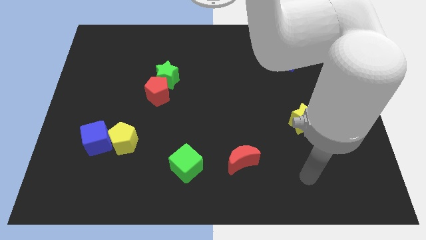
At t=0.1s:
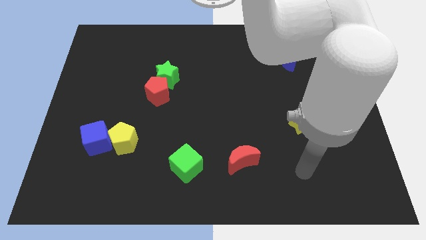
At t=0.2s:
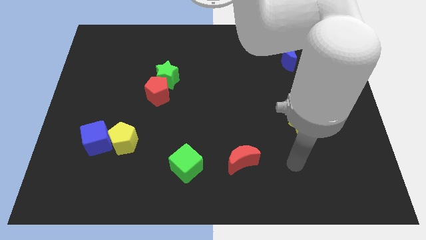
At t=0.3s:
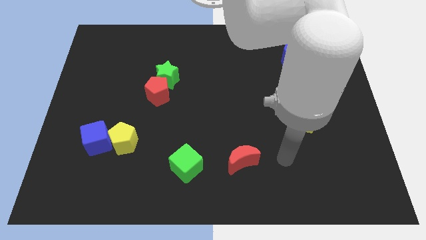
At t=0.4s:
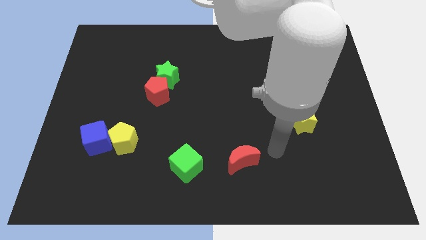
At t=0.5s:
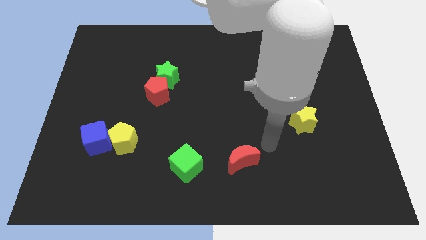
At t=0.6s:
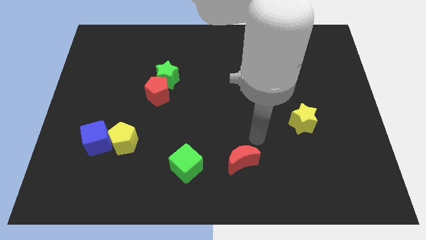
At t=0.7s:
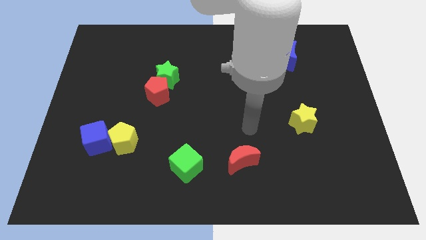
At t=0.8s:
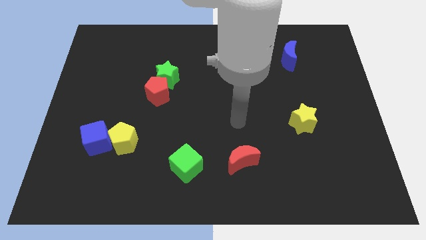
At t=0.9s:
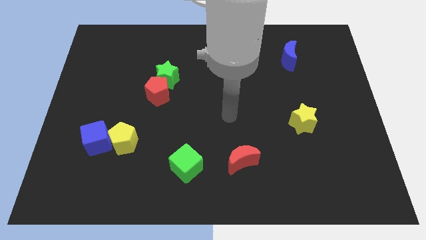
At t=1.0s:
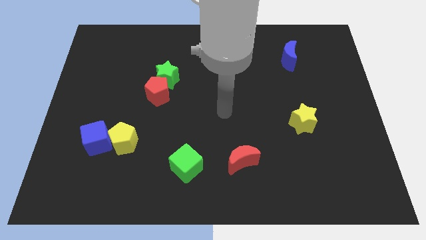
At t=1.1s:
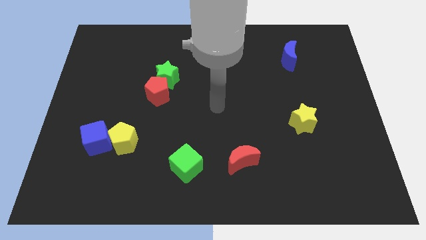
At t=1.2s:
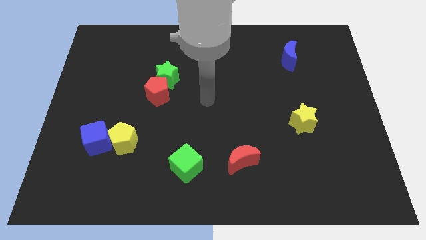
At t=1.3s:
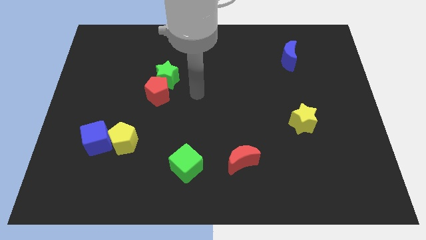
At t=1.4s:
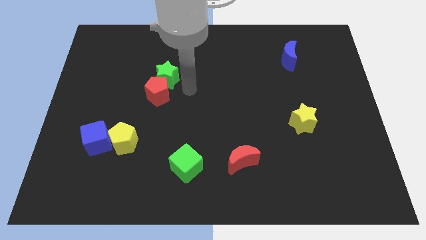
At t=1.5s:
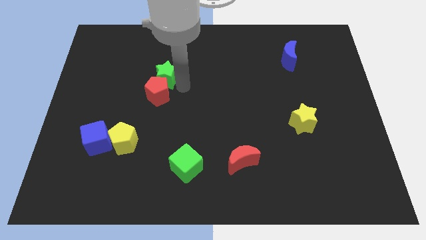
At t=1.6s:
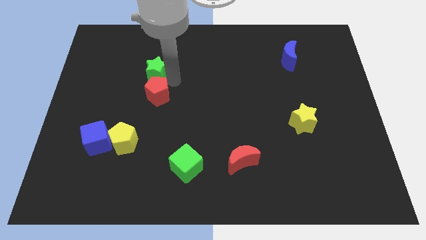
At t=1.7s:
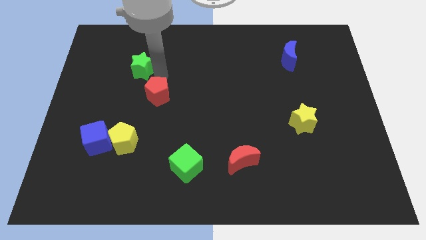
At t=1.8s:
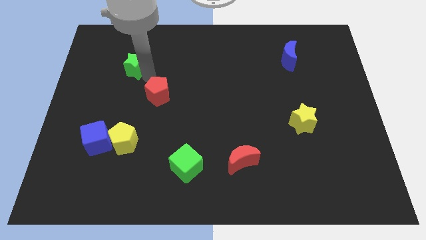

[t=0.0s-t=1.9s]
pull the red pentagon apart from the green star

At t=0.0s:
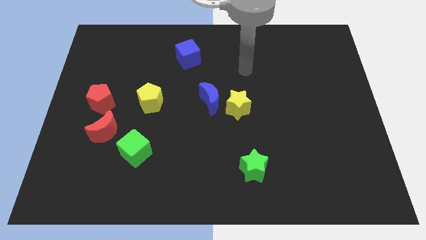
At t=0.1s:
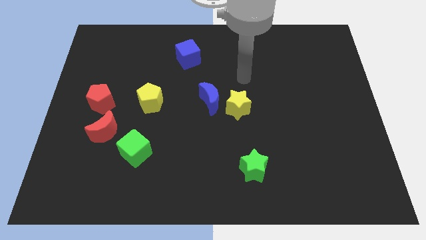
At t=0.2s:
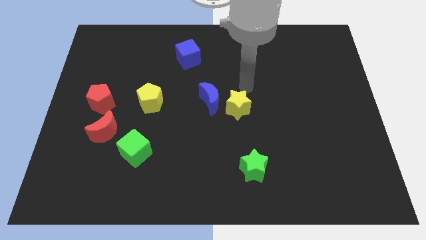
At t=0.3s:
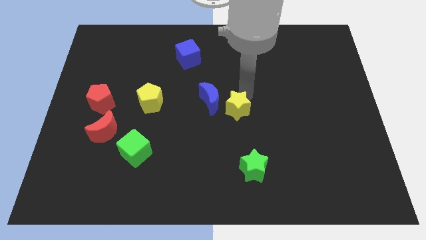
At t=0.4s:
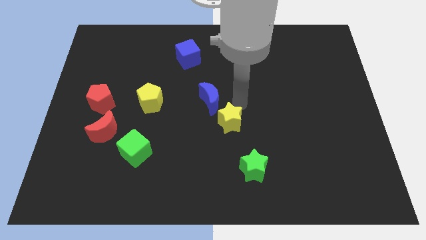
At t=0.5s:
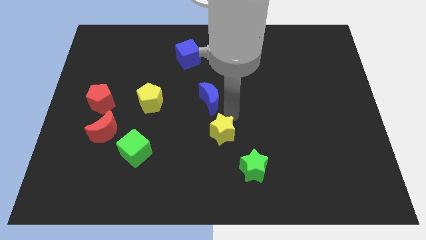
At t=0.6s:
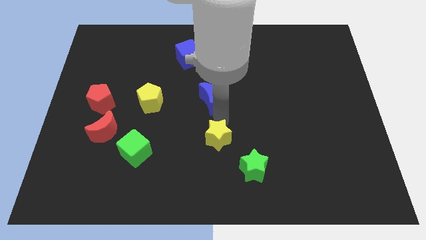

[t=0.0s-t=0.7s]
move the blue moon away from the yellow star

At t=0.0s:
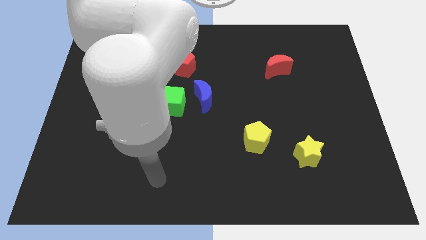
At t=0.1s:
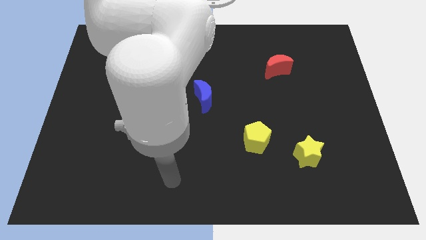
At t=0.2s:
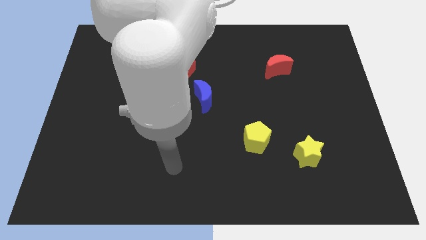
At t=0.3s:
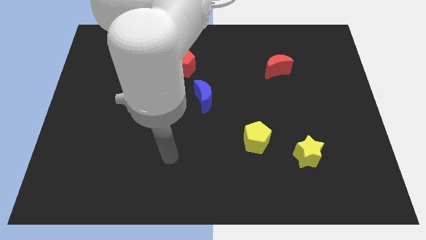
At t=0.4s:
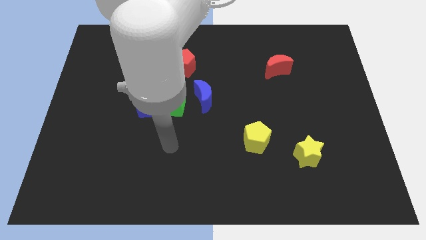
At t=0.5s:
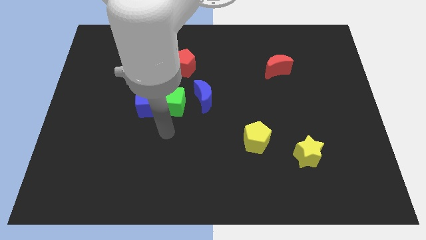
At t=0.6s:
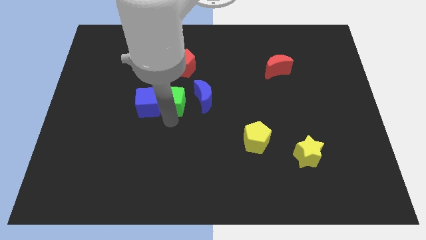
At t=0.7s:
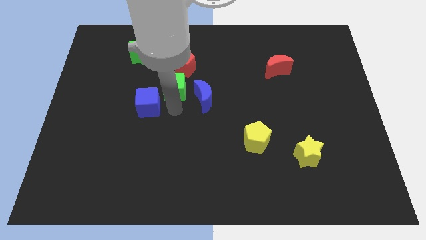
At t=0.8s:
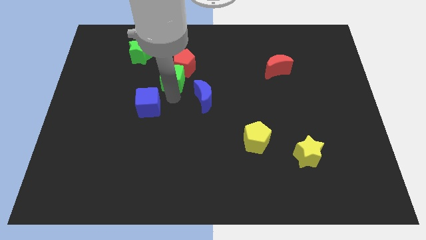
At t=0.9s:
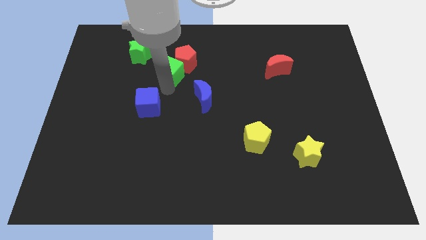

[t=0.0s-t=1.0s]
separate the blue cube from the green cube

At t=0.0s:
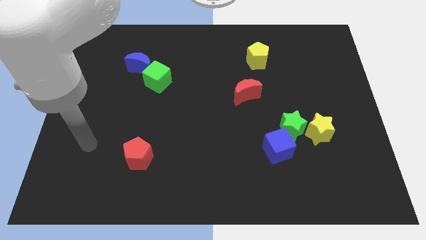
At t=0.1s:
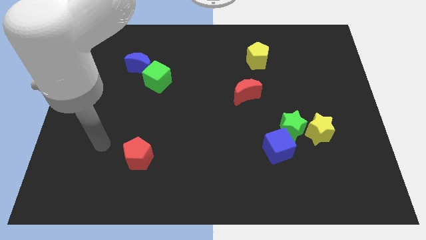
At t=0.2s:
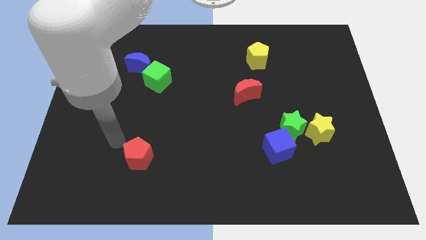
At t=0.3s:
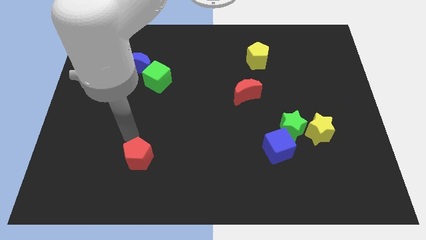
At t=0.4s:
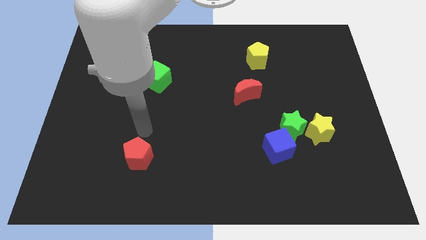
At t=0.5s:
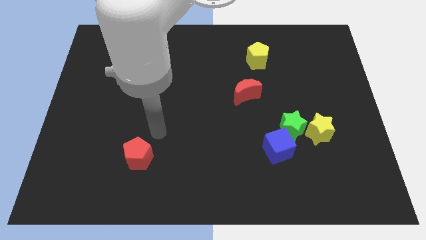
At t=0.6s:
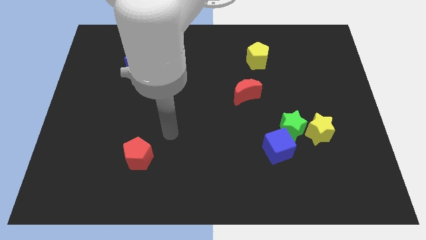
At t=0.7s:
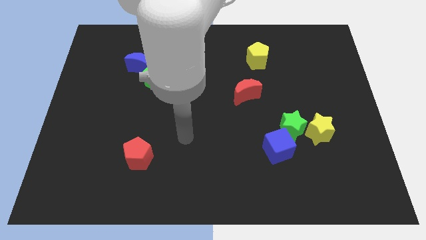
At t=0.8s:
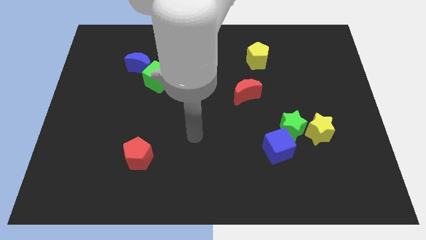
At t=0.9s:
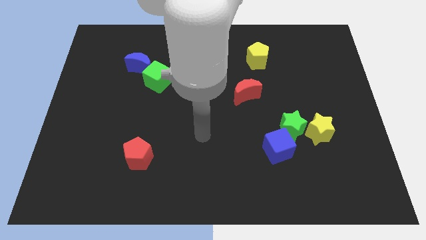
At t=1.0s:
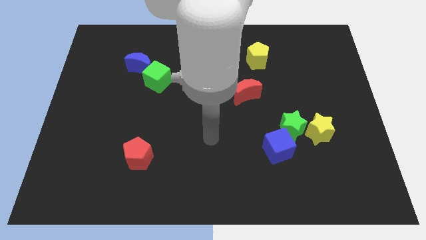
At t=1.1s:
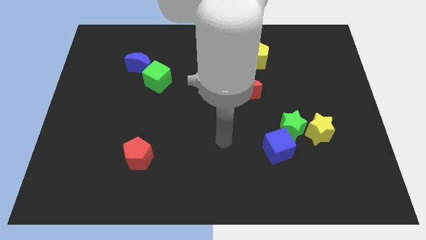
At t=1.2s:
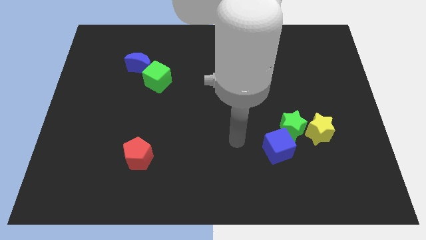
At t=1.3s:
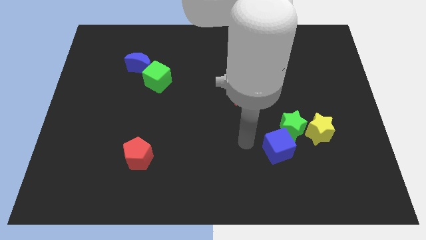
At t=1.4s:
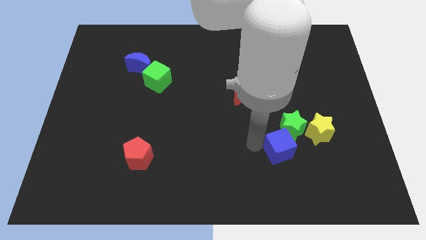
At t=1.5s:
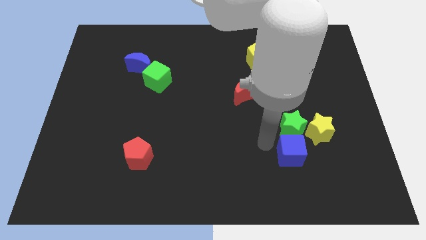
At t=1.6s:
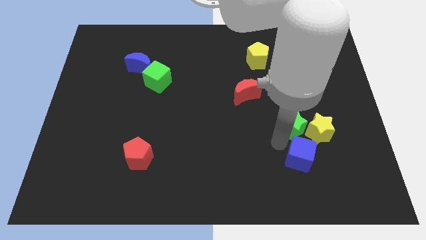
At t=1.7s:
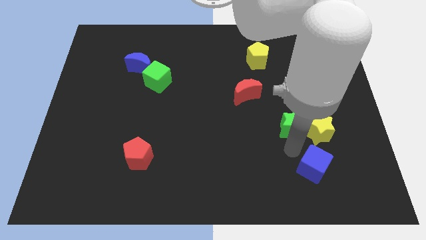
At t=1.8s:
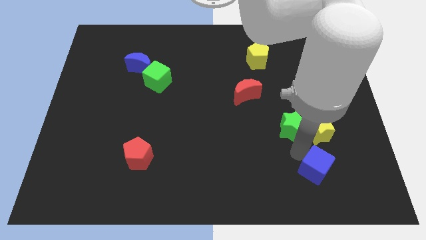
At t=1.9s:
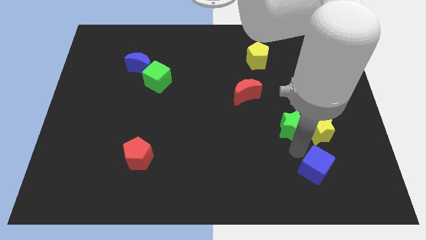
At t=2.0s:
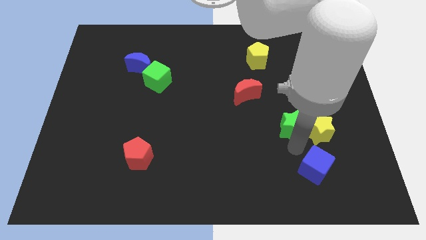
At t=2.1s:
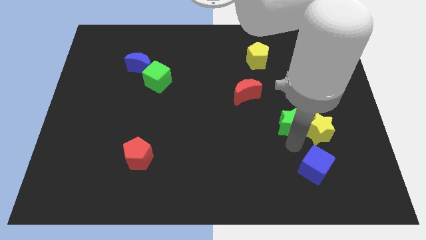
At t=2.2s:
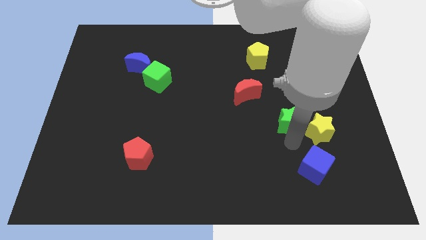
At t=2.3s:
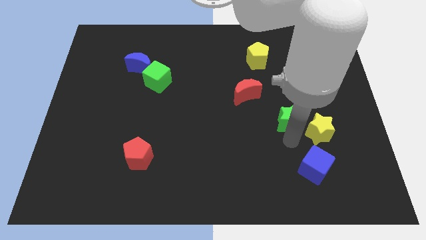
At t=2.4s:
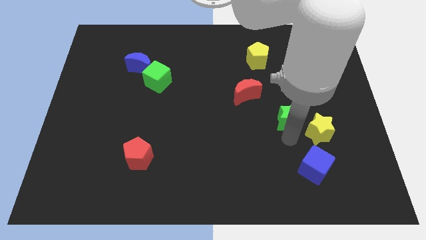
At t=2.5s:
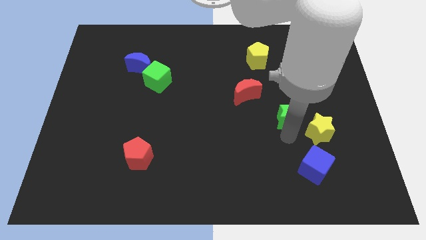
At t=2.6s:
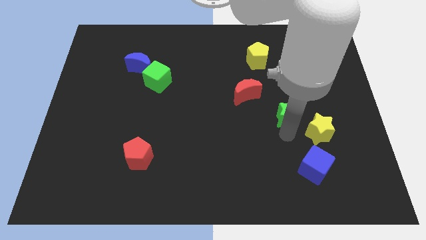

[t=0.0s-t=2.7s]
separate the green star from the yellow star and blue cube

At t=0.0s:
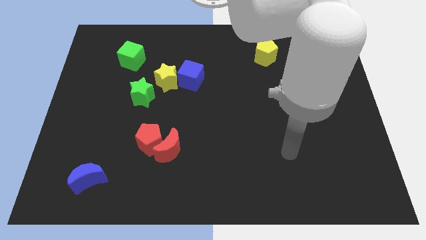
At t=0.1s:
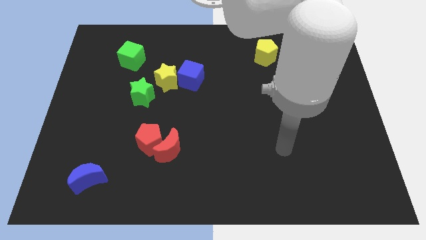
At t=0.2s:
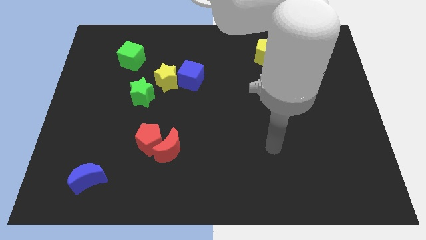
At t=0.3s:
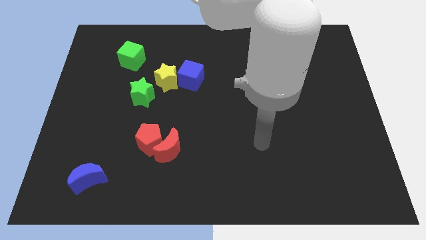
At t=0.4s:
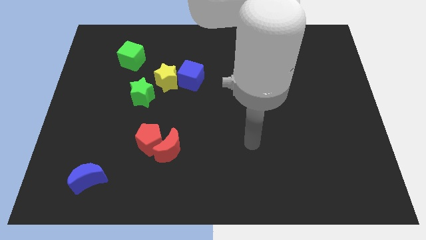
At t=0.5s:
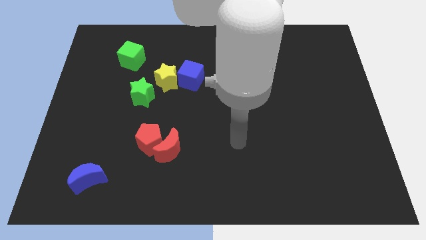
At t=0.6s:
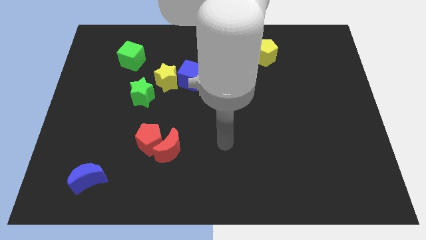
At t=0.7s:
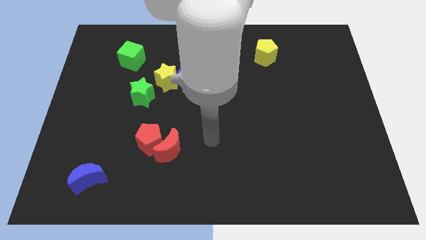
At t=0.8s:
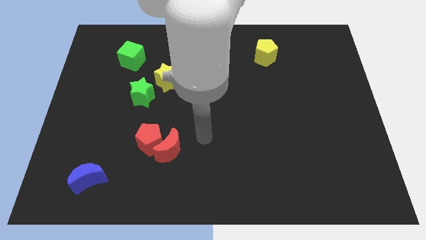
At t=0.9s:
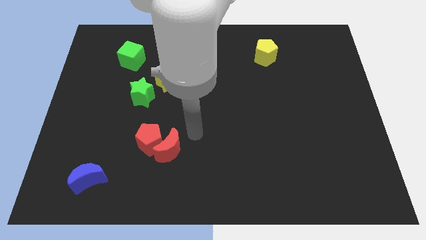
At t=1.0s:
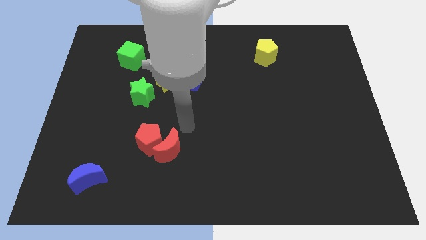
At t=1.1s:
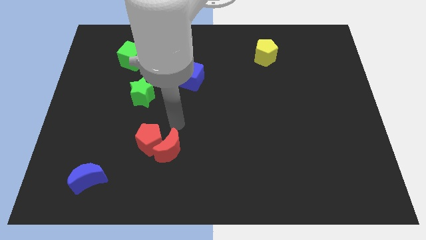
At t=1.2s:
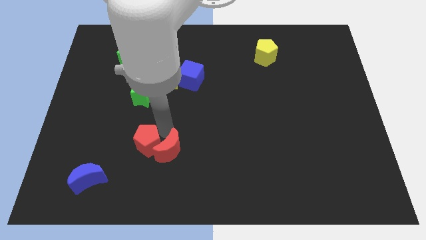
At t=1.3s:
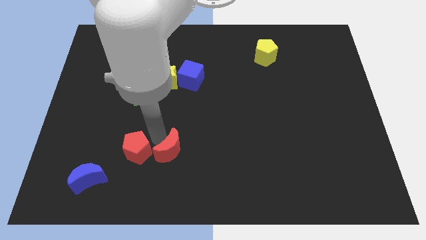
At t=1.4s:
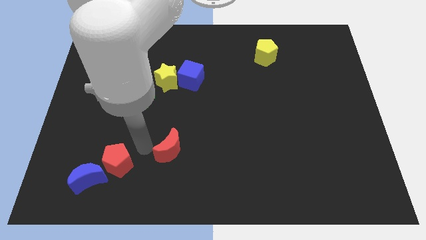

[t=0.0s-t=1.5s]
pull the red moon apart from the red pentagon

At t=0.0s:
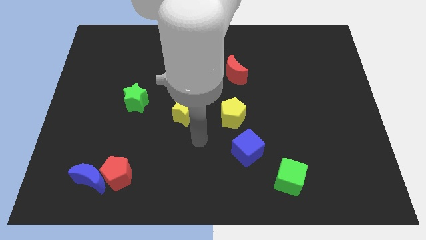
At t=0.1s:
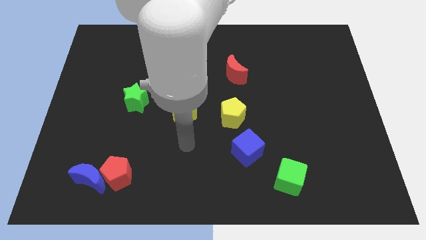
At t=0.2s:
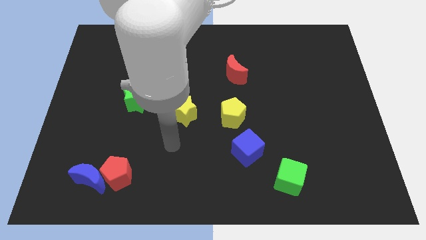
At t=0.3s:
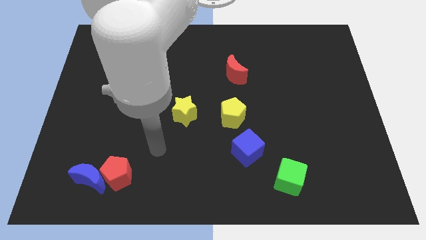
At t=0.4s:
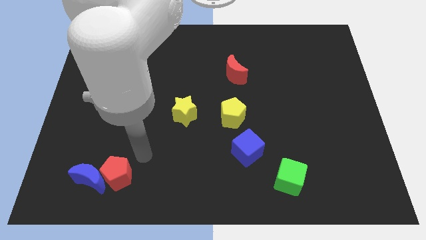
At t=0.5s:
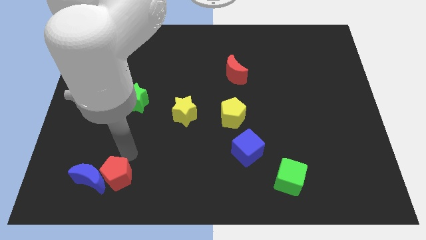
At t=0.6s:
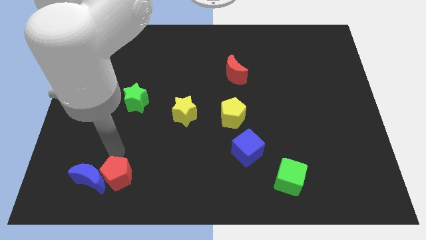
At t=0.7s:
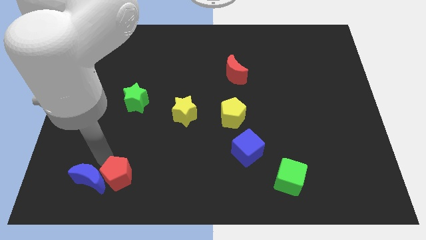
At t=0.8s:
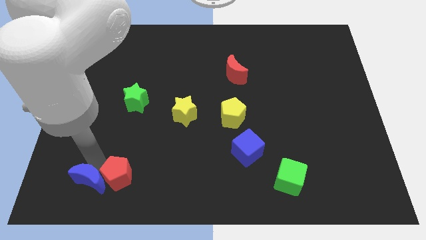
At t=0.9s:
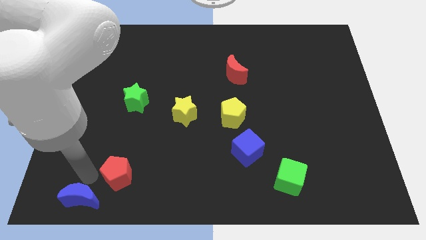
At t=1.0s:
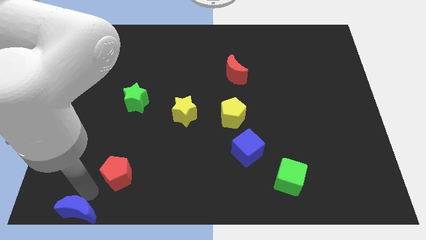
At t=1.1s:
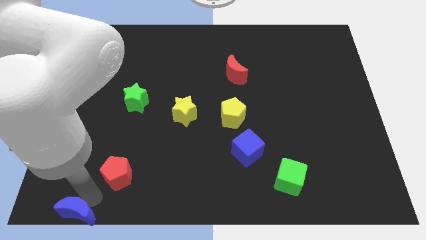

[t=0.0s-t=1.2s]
move the red pentagon away from the blue moon

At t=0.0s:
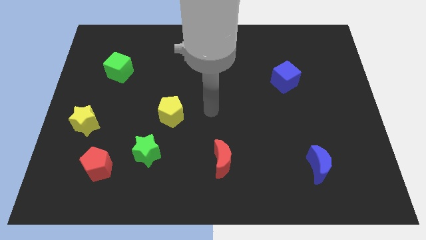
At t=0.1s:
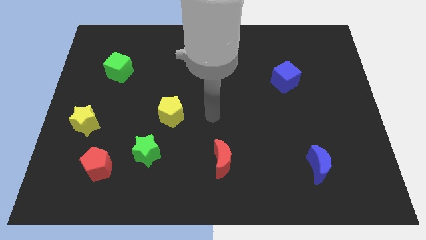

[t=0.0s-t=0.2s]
move the red pentagon away from the green star
